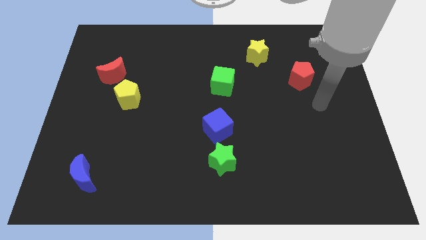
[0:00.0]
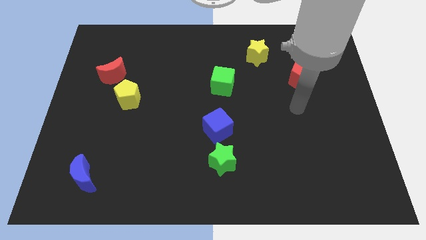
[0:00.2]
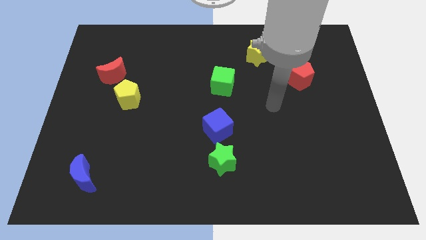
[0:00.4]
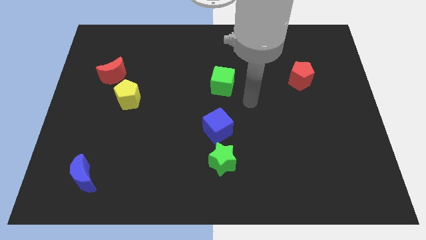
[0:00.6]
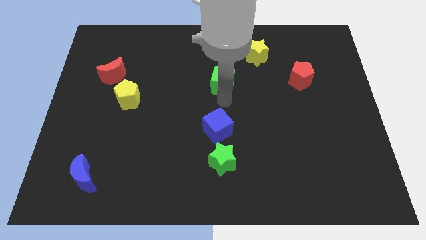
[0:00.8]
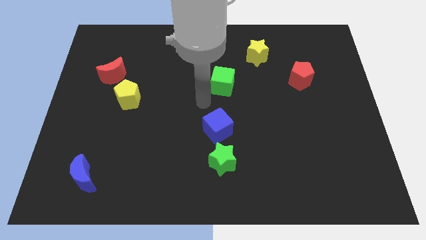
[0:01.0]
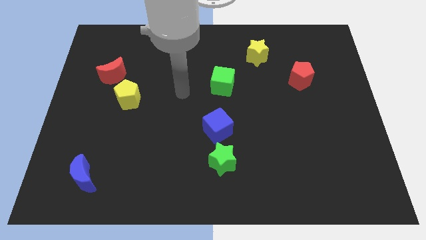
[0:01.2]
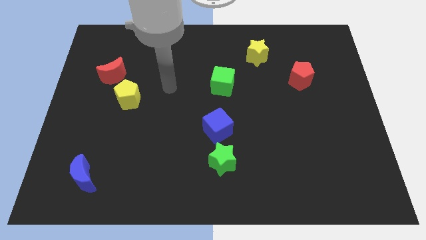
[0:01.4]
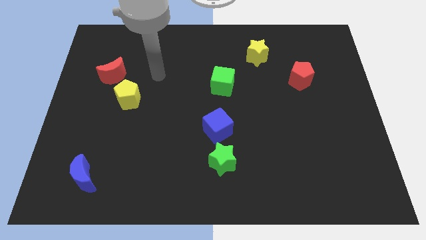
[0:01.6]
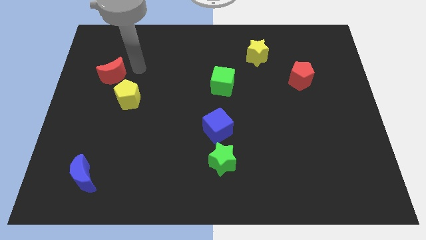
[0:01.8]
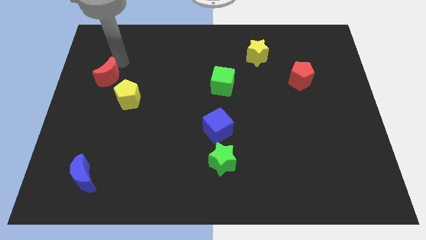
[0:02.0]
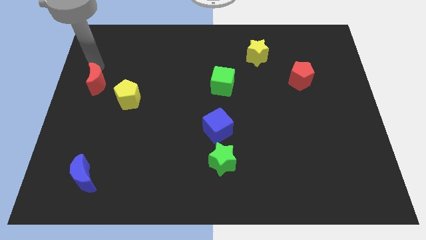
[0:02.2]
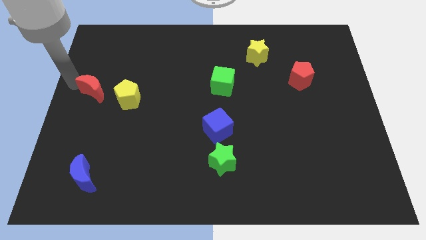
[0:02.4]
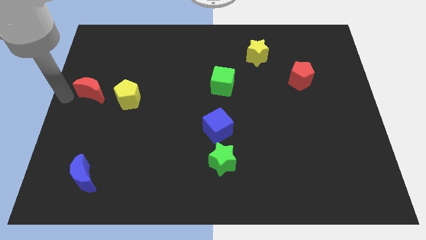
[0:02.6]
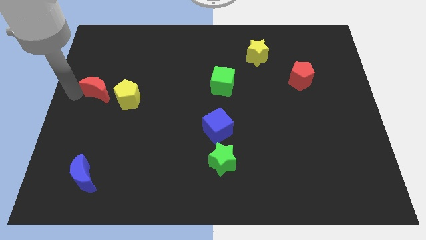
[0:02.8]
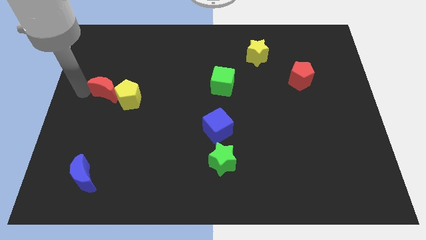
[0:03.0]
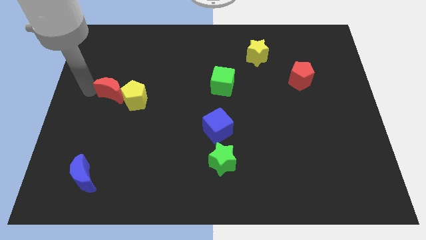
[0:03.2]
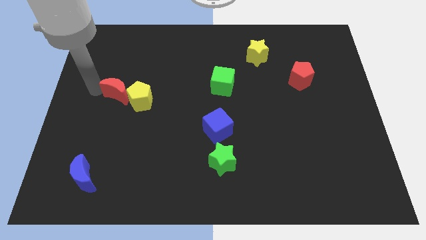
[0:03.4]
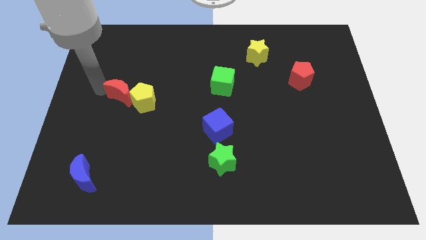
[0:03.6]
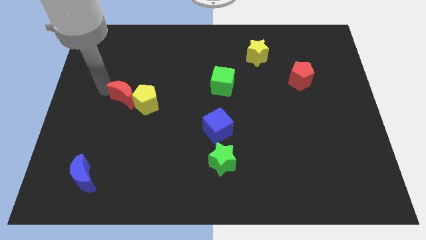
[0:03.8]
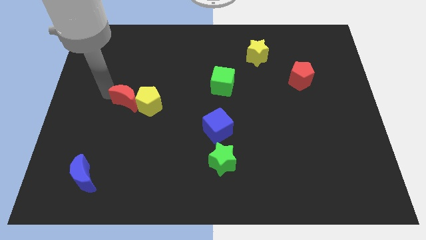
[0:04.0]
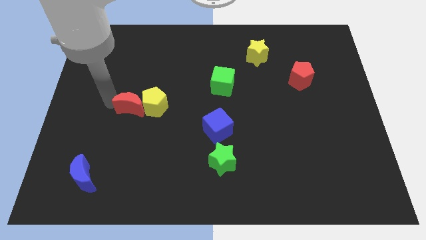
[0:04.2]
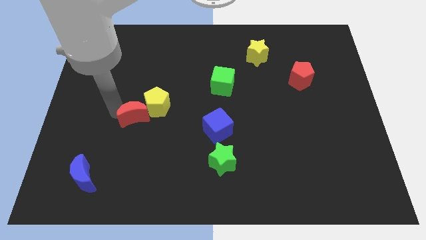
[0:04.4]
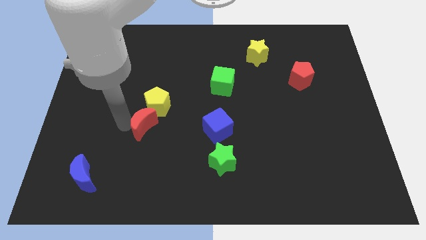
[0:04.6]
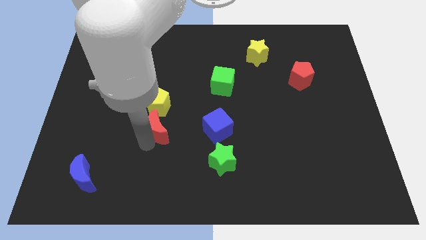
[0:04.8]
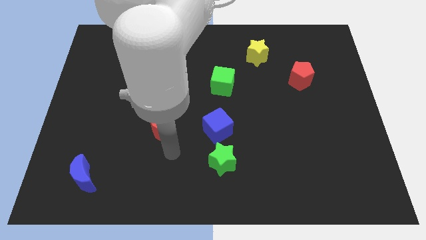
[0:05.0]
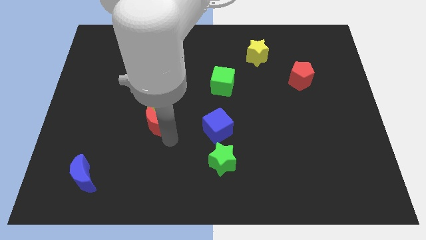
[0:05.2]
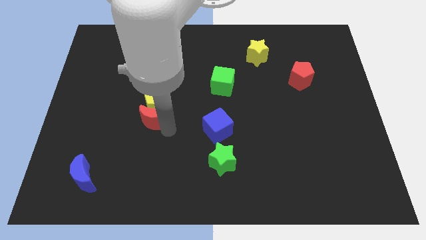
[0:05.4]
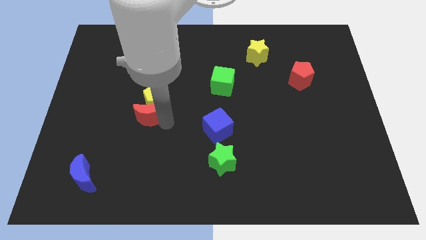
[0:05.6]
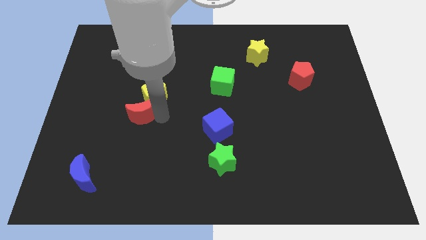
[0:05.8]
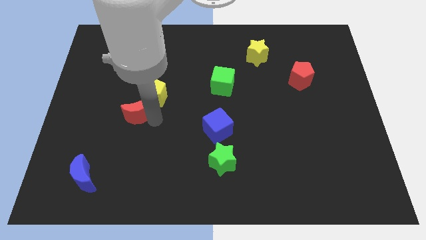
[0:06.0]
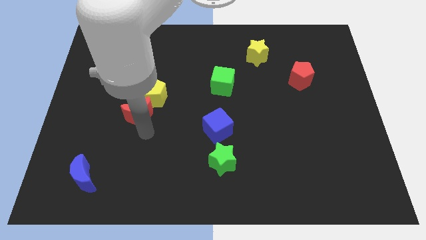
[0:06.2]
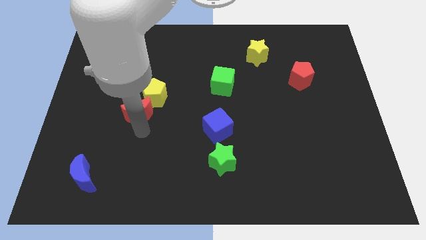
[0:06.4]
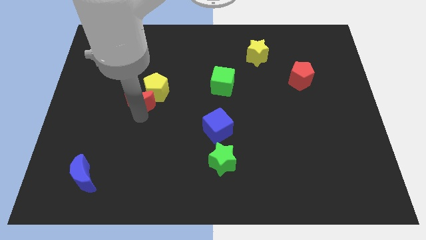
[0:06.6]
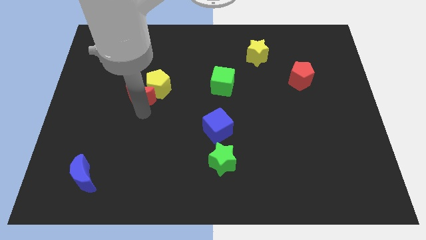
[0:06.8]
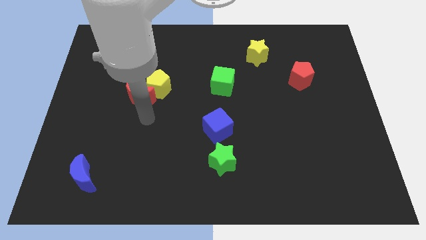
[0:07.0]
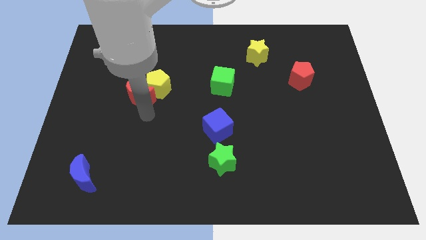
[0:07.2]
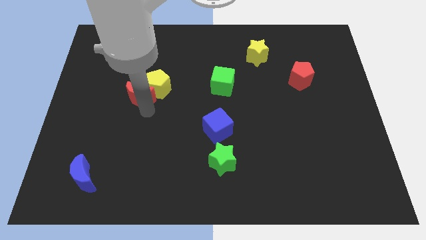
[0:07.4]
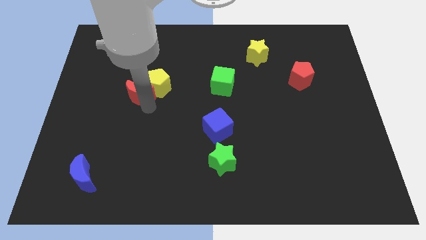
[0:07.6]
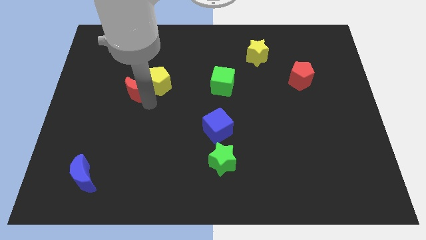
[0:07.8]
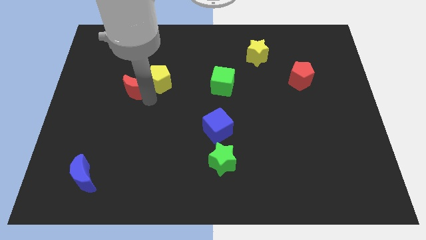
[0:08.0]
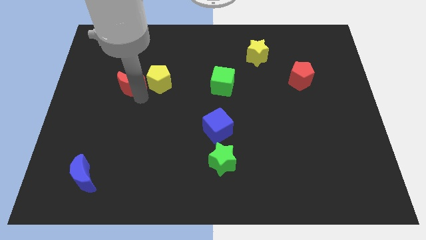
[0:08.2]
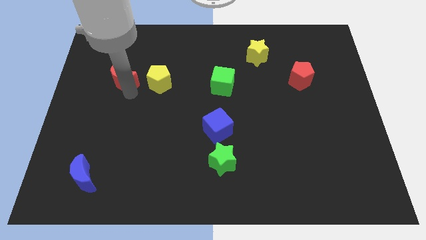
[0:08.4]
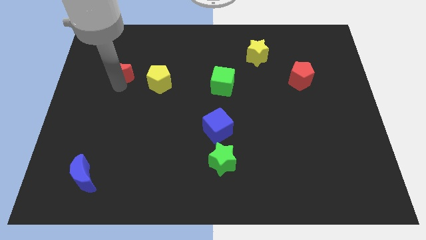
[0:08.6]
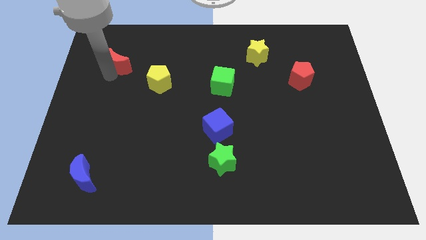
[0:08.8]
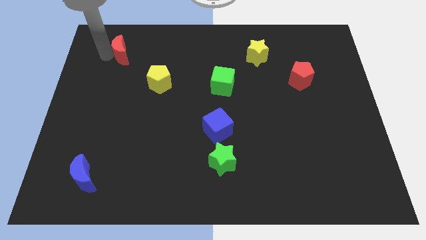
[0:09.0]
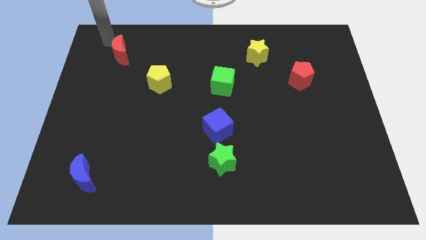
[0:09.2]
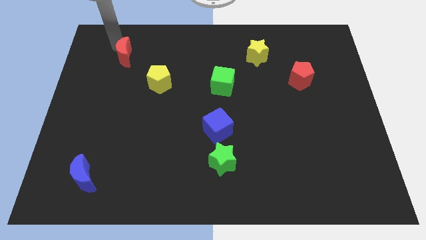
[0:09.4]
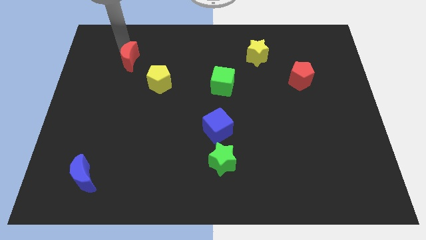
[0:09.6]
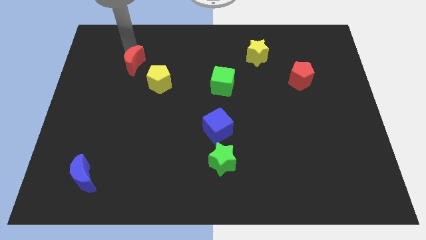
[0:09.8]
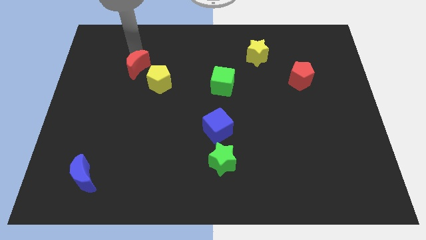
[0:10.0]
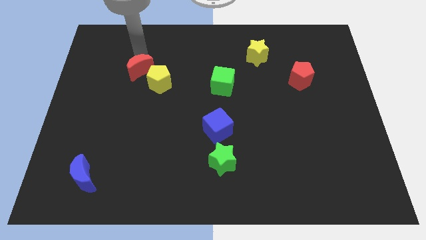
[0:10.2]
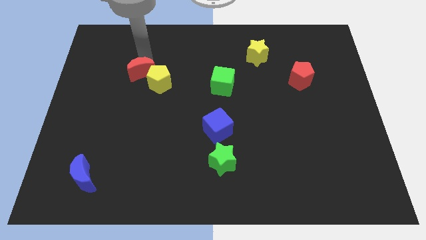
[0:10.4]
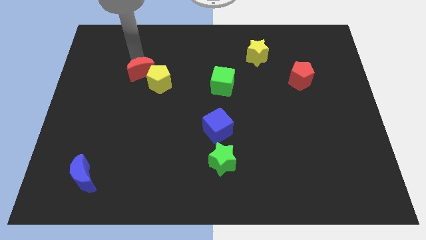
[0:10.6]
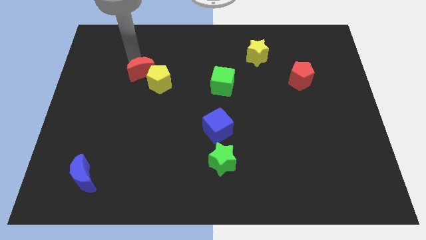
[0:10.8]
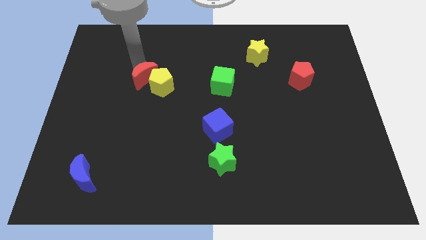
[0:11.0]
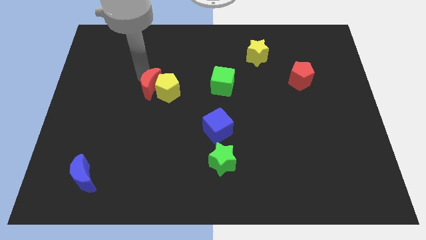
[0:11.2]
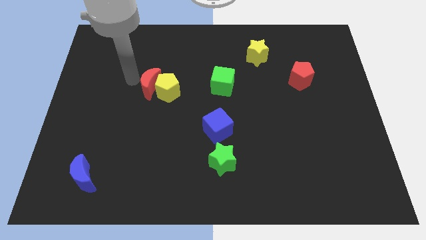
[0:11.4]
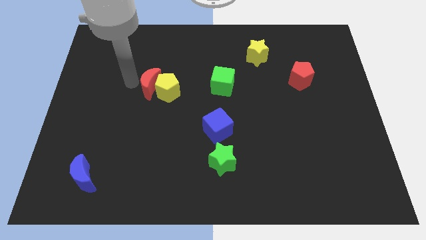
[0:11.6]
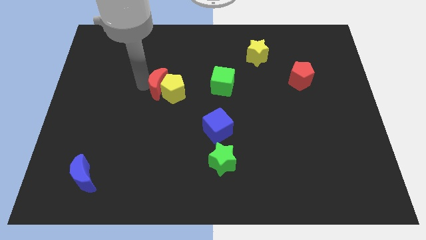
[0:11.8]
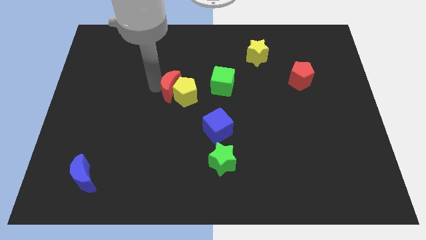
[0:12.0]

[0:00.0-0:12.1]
slide the red moon to the middle of the board

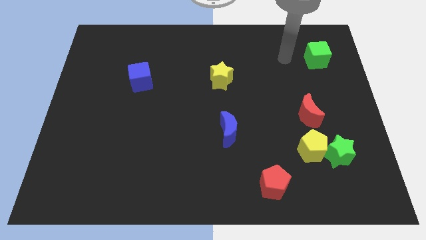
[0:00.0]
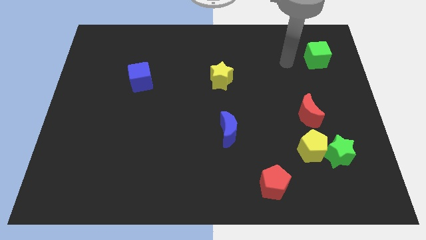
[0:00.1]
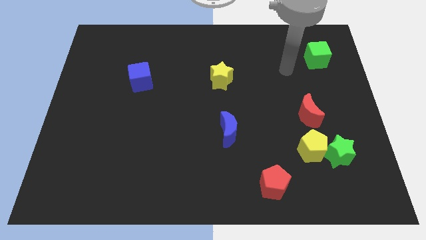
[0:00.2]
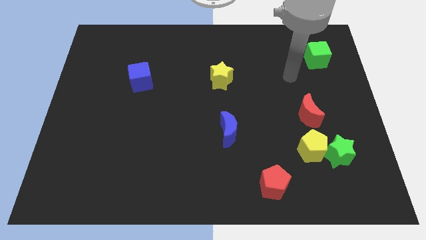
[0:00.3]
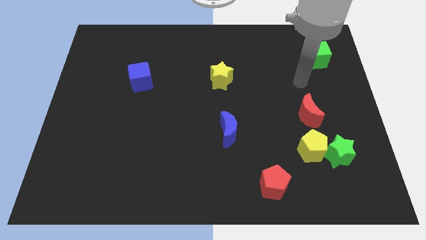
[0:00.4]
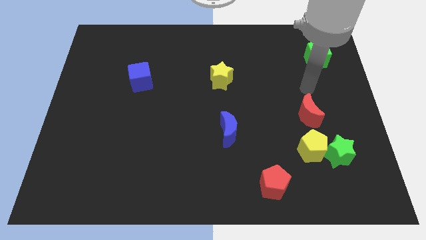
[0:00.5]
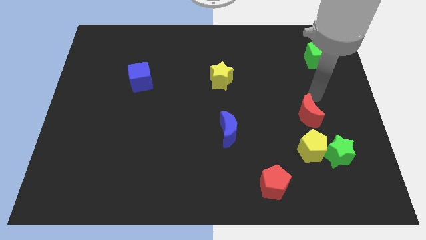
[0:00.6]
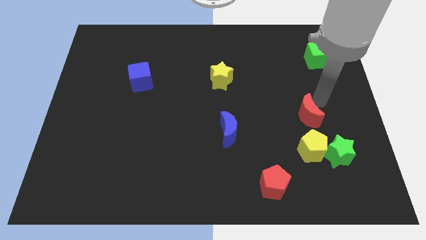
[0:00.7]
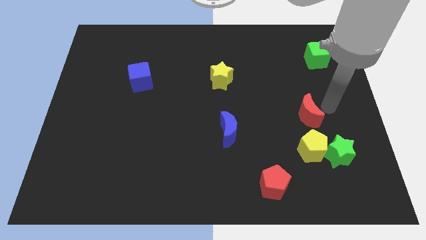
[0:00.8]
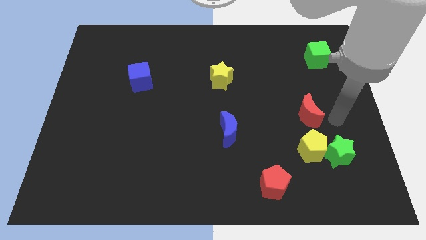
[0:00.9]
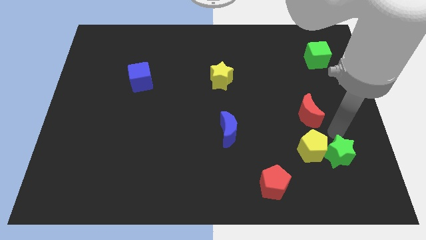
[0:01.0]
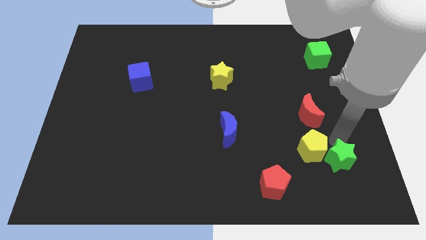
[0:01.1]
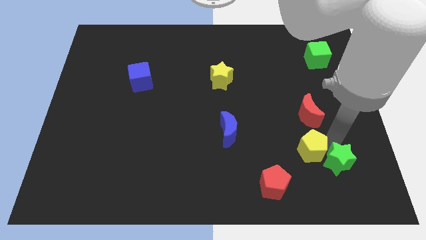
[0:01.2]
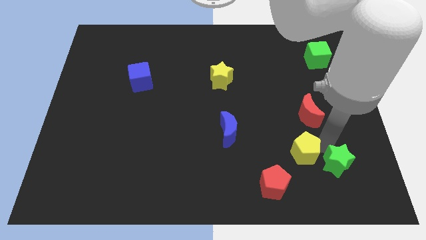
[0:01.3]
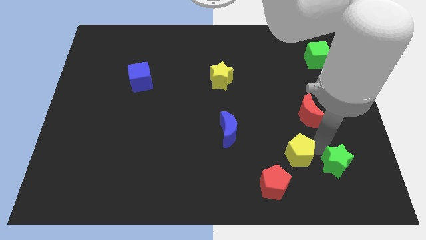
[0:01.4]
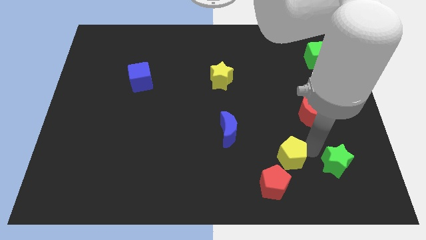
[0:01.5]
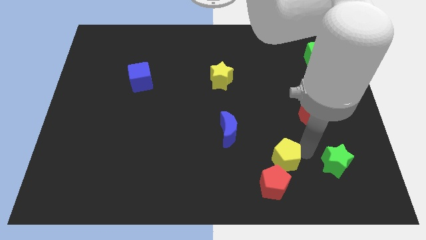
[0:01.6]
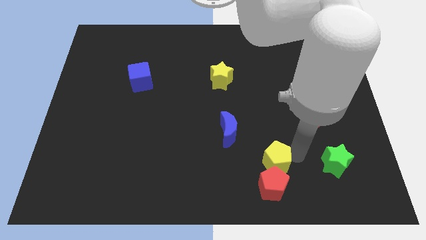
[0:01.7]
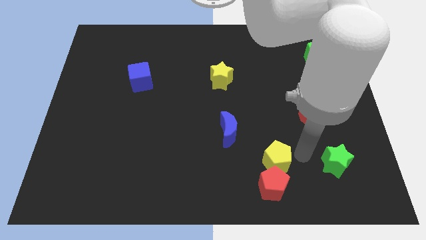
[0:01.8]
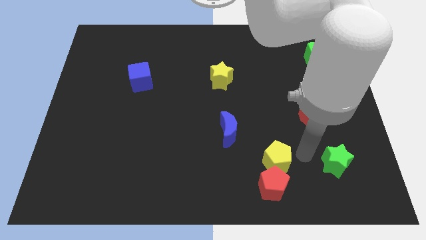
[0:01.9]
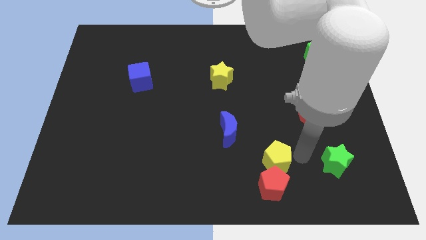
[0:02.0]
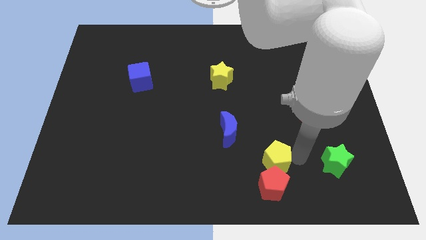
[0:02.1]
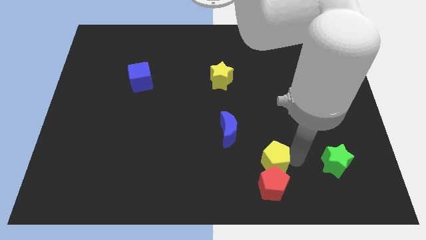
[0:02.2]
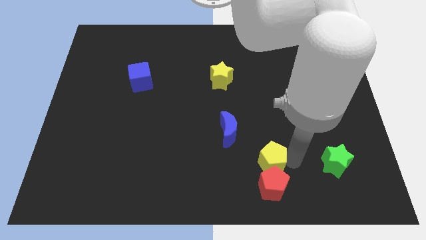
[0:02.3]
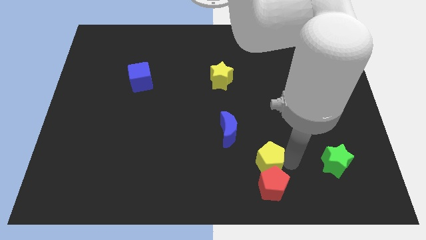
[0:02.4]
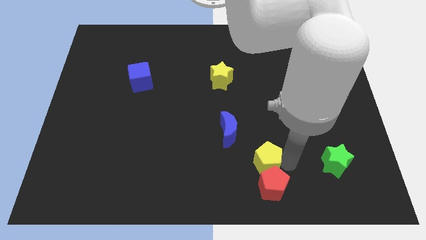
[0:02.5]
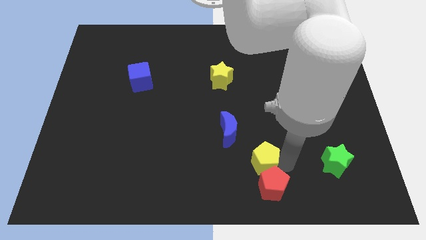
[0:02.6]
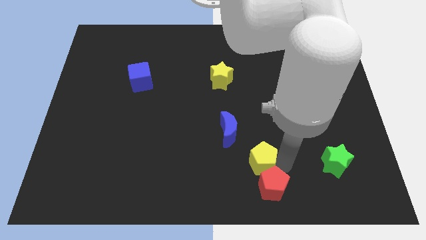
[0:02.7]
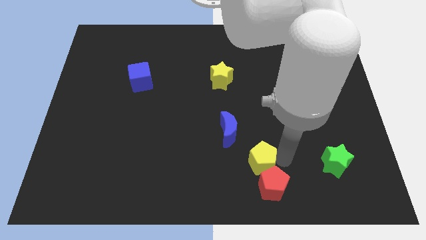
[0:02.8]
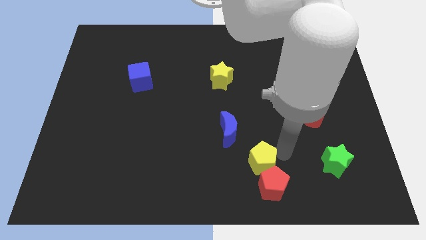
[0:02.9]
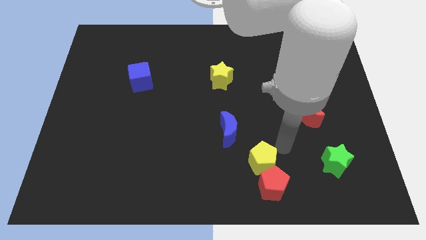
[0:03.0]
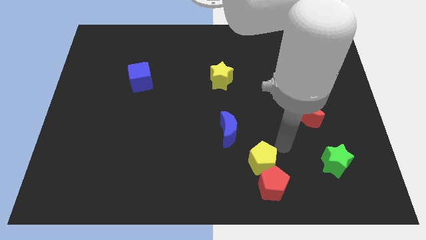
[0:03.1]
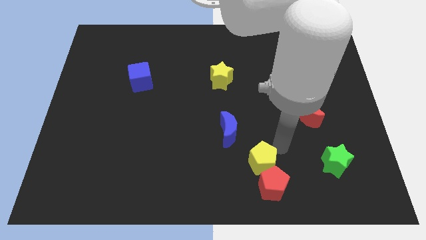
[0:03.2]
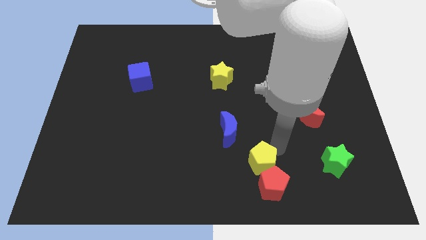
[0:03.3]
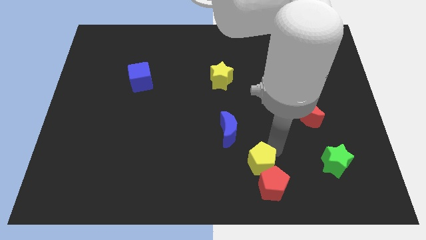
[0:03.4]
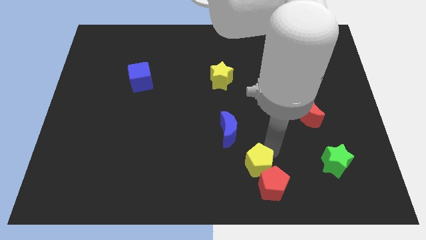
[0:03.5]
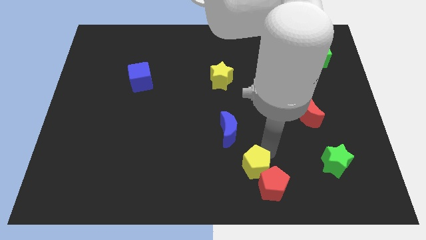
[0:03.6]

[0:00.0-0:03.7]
move the yellow pentagon to the bottom
